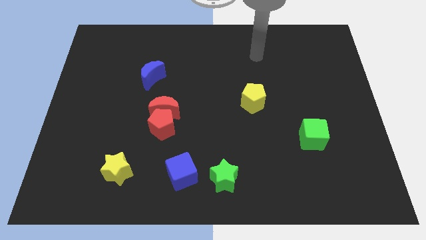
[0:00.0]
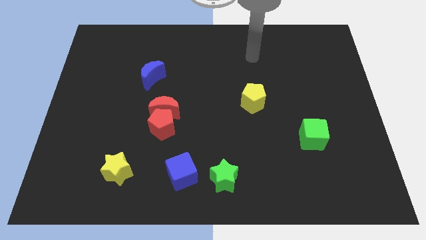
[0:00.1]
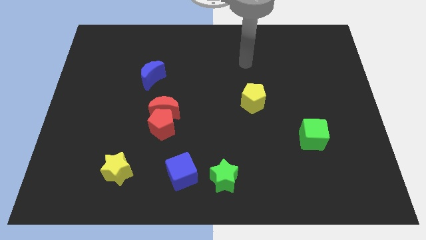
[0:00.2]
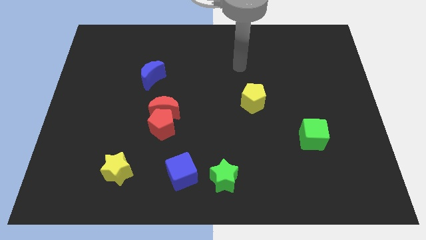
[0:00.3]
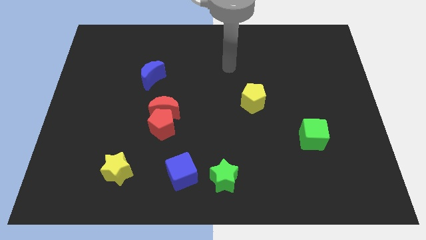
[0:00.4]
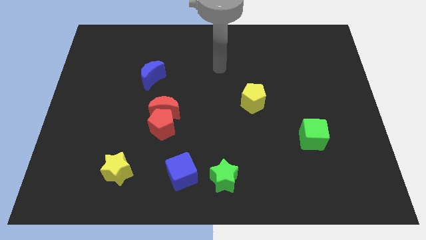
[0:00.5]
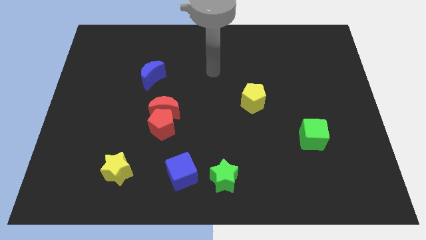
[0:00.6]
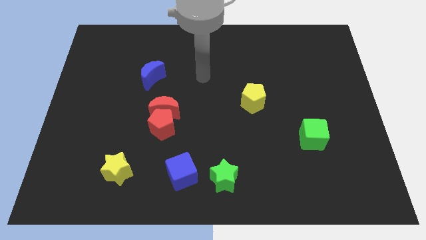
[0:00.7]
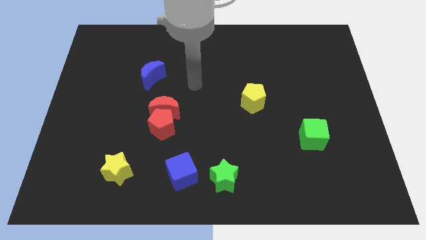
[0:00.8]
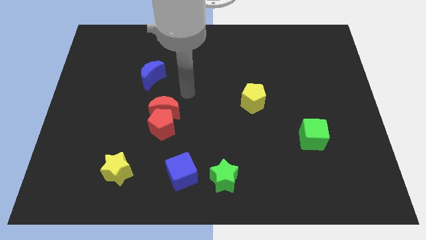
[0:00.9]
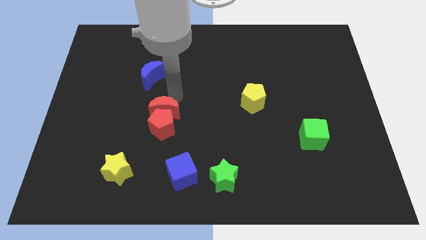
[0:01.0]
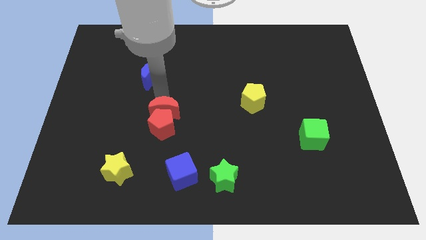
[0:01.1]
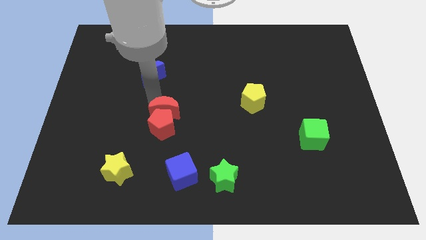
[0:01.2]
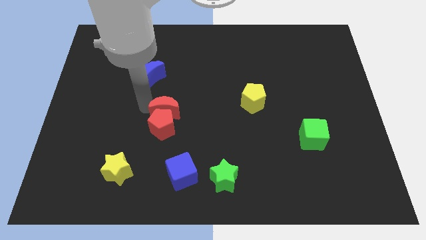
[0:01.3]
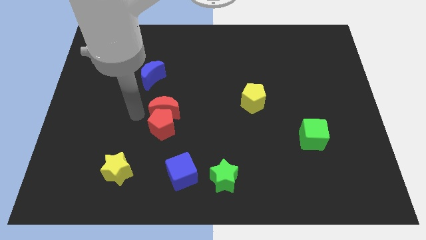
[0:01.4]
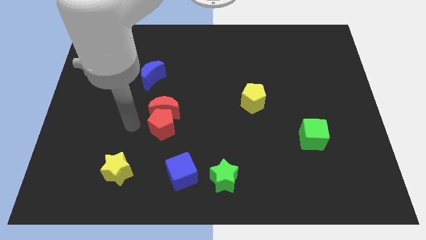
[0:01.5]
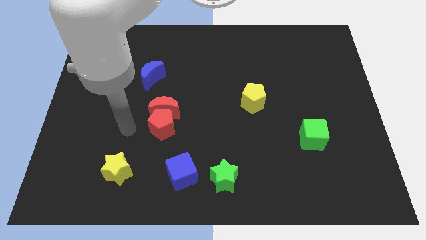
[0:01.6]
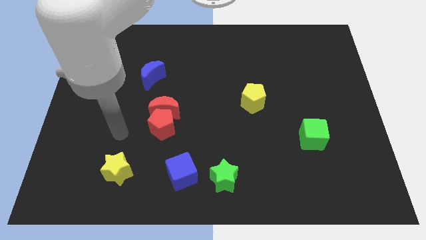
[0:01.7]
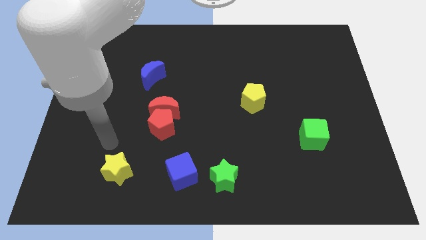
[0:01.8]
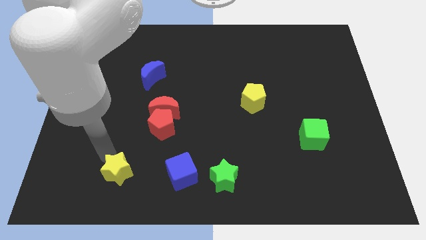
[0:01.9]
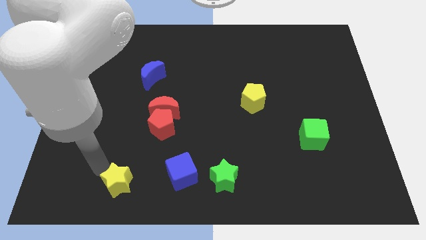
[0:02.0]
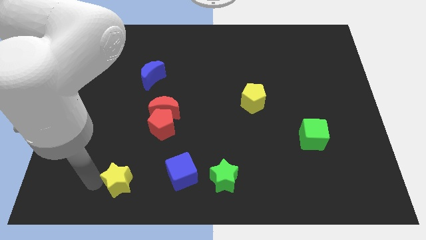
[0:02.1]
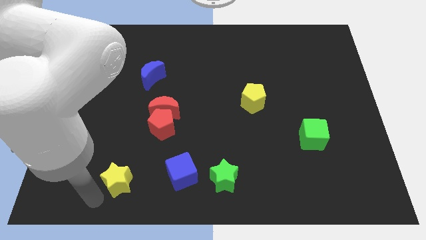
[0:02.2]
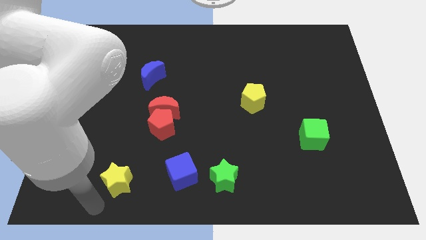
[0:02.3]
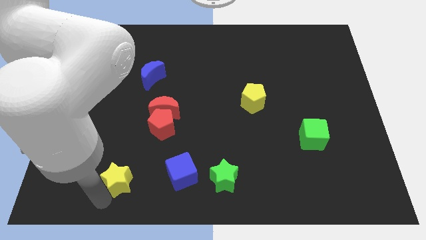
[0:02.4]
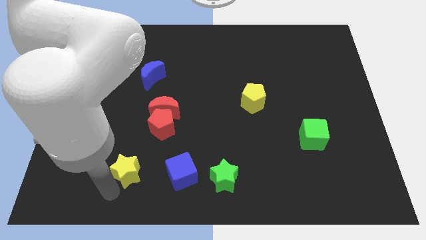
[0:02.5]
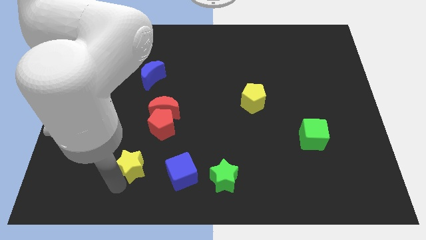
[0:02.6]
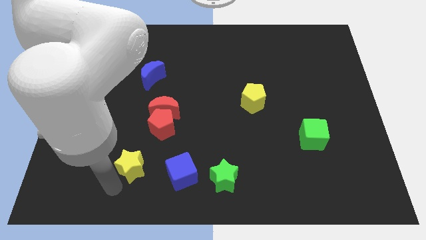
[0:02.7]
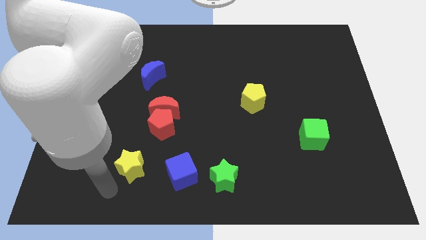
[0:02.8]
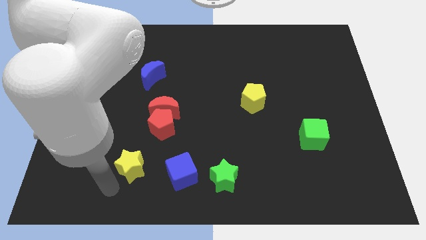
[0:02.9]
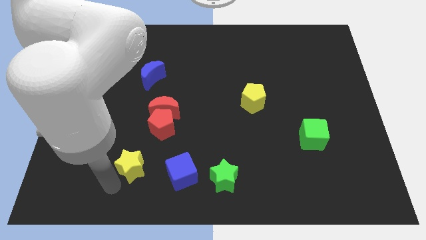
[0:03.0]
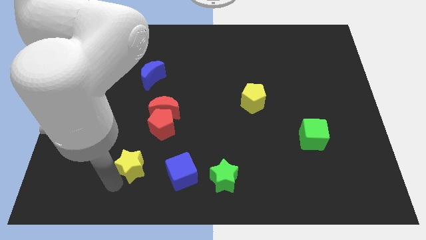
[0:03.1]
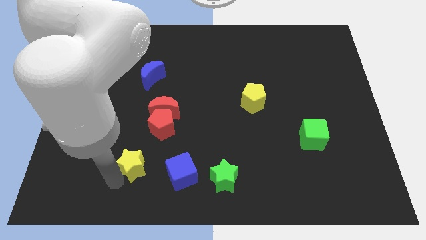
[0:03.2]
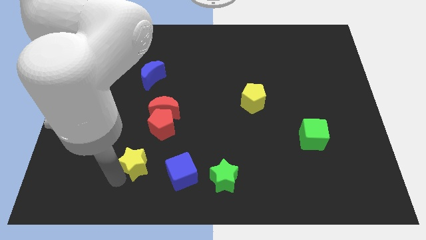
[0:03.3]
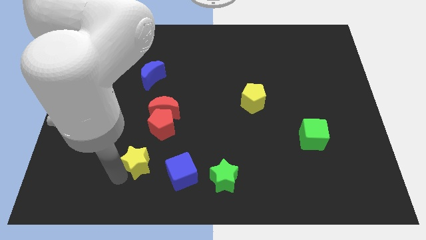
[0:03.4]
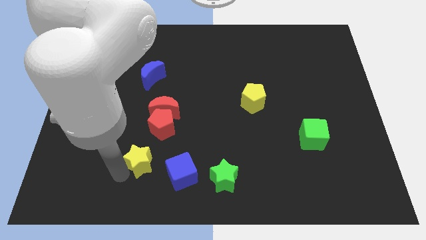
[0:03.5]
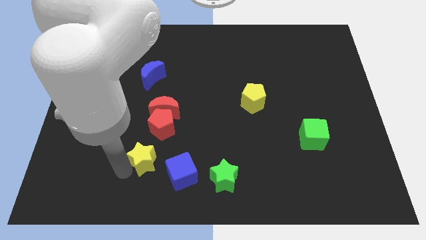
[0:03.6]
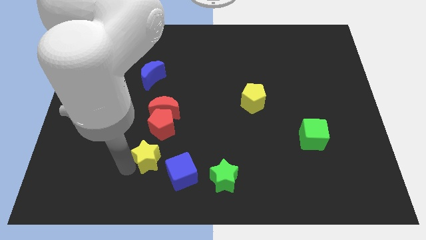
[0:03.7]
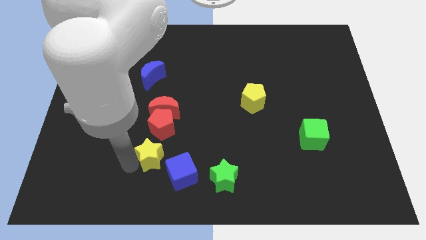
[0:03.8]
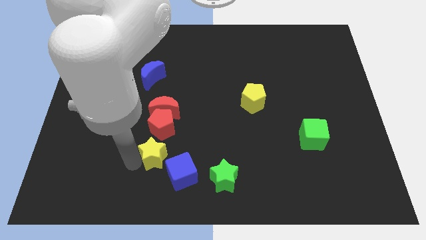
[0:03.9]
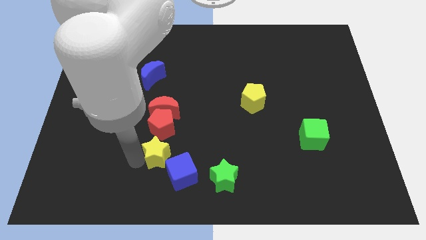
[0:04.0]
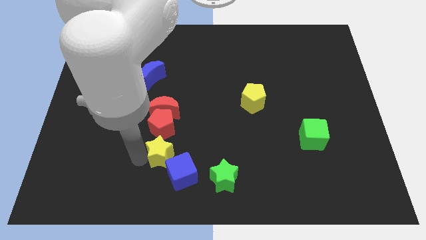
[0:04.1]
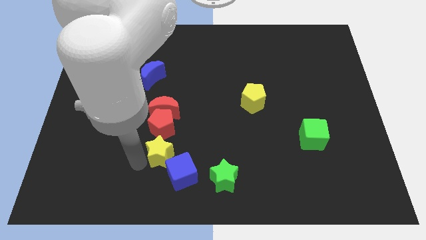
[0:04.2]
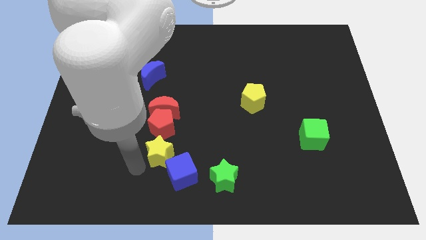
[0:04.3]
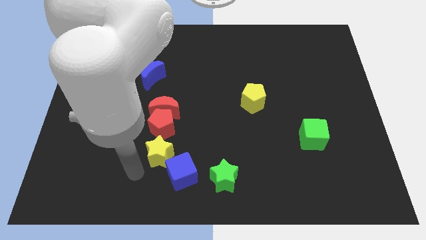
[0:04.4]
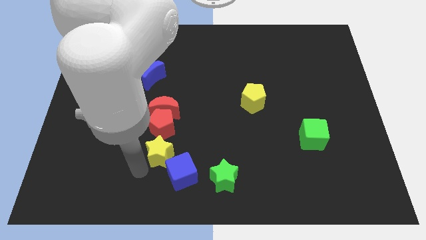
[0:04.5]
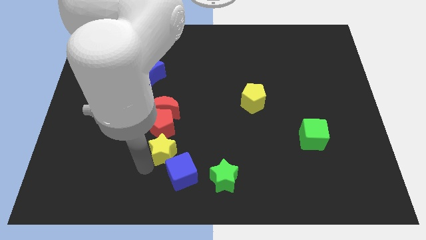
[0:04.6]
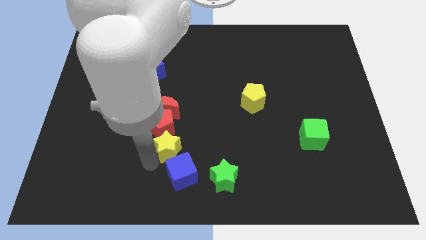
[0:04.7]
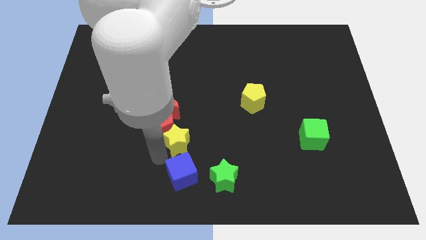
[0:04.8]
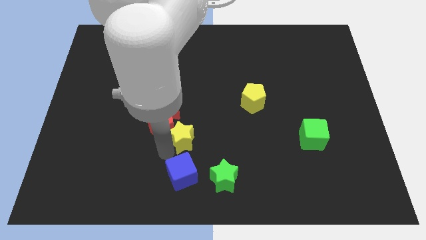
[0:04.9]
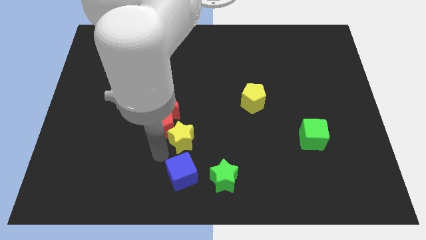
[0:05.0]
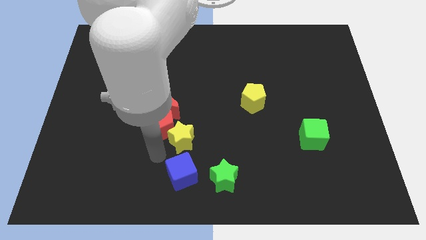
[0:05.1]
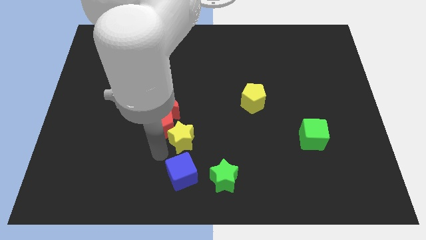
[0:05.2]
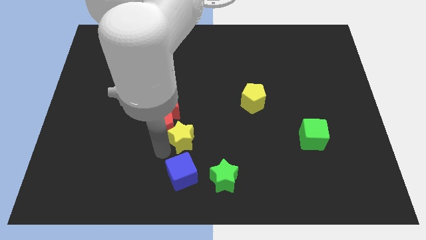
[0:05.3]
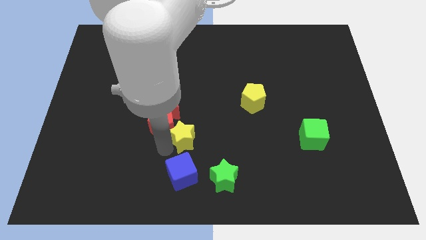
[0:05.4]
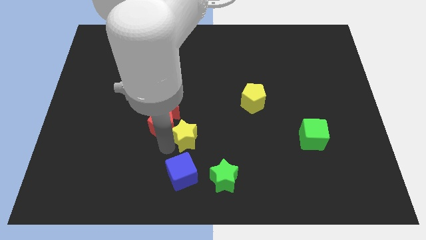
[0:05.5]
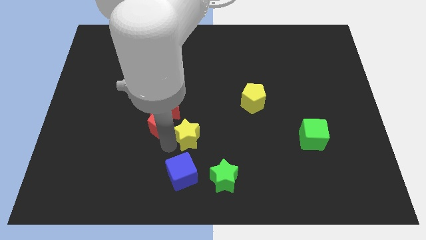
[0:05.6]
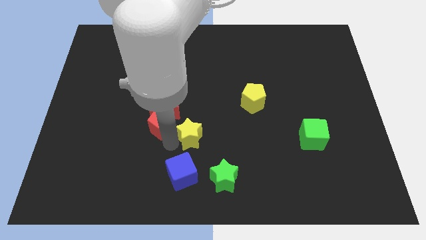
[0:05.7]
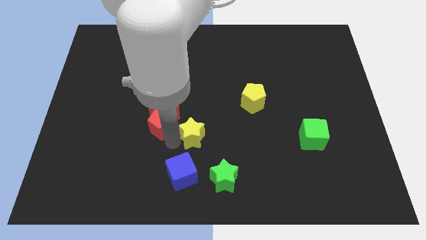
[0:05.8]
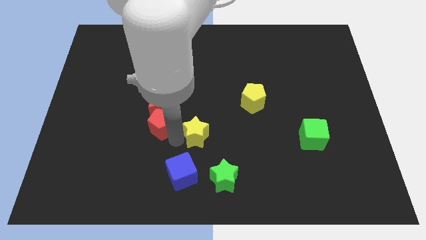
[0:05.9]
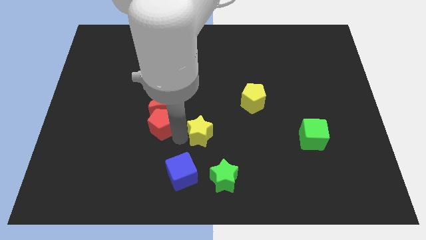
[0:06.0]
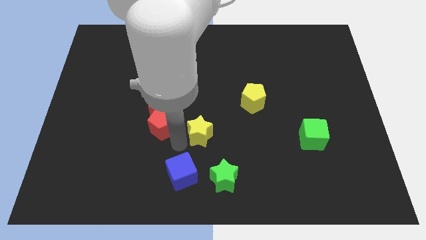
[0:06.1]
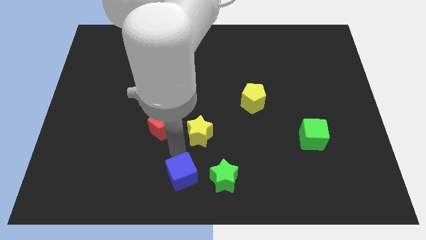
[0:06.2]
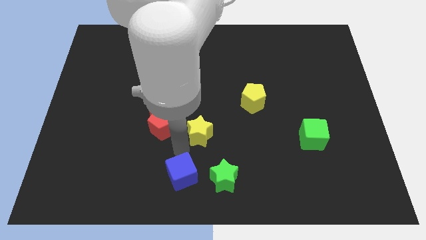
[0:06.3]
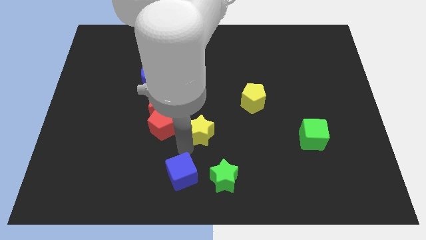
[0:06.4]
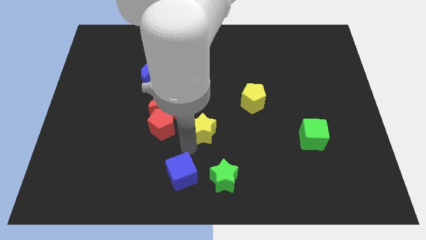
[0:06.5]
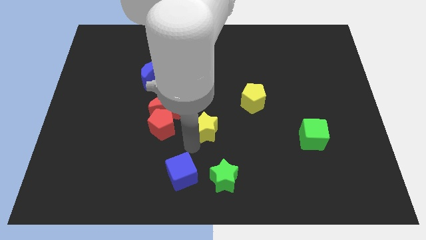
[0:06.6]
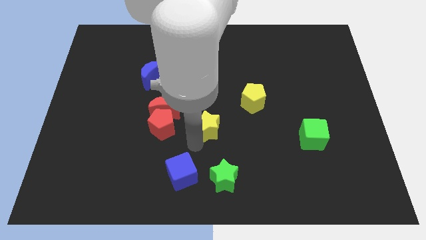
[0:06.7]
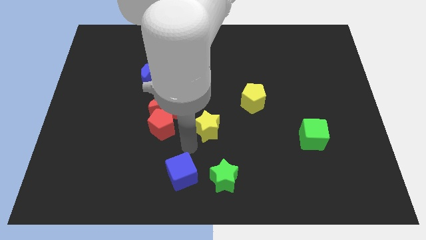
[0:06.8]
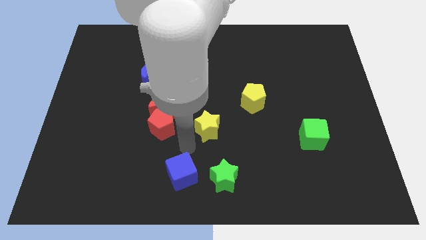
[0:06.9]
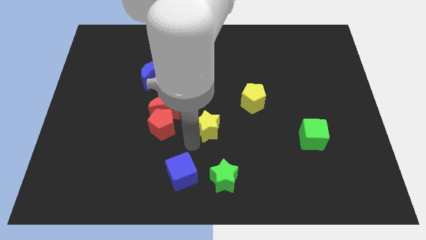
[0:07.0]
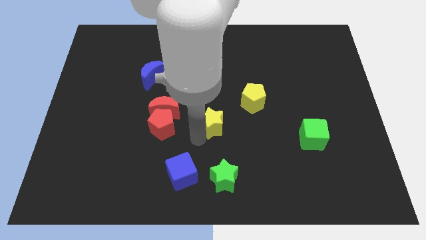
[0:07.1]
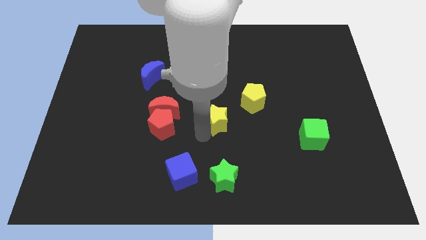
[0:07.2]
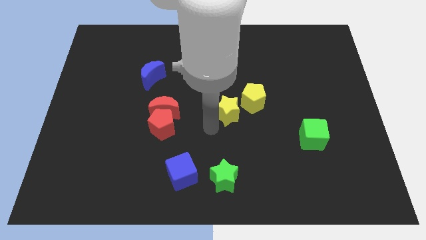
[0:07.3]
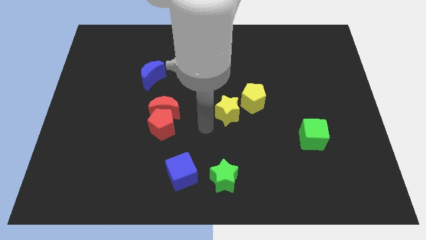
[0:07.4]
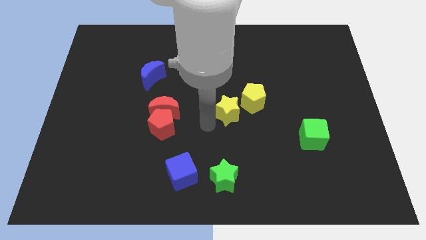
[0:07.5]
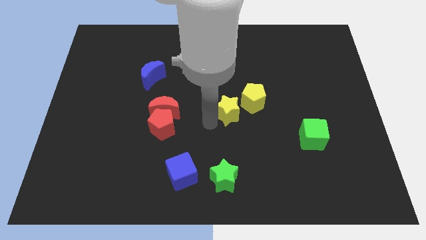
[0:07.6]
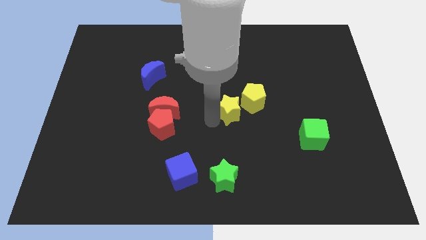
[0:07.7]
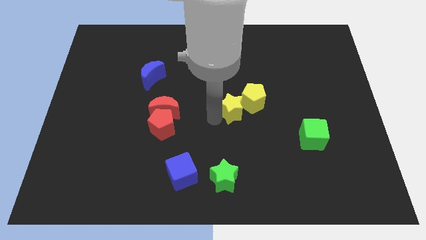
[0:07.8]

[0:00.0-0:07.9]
put the yellow star towards the yellow pentagon
